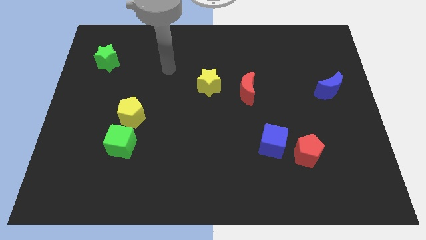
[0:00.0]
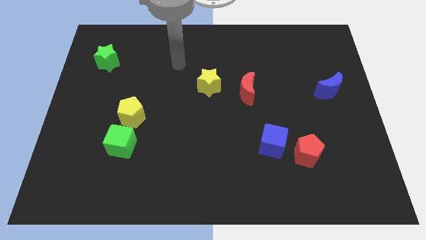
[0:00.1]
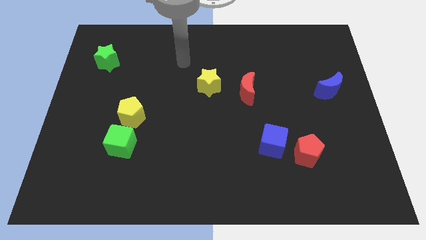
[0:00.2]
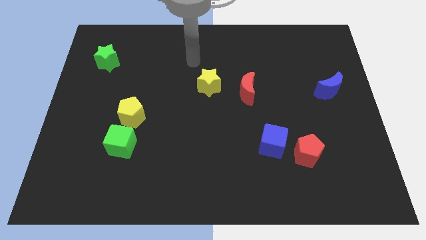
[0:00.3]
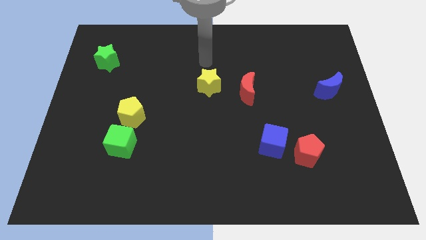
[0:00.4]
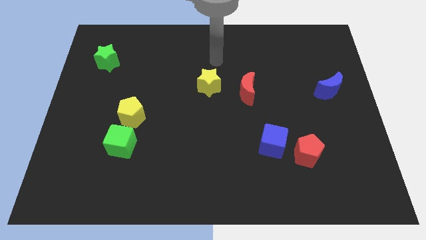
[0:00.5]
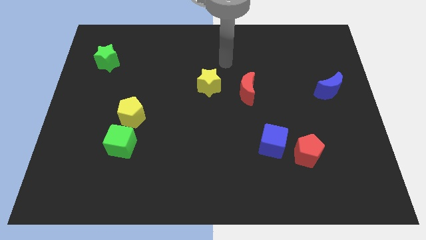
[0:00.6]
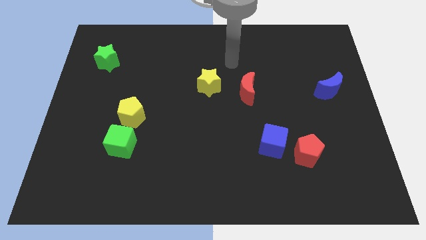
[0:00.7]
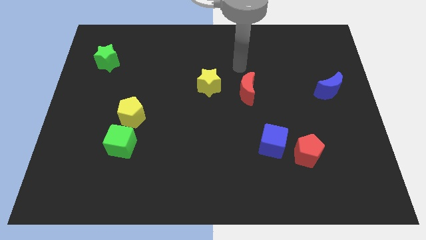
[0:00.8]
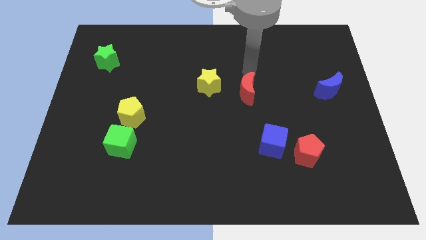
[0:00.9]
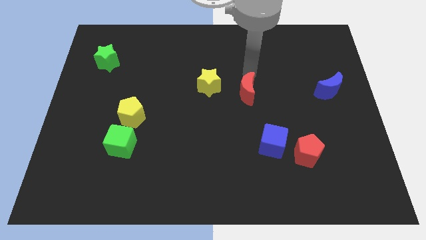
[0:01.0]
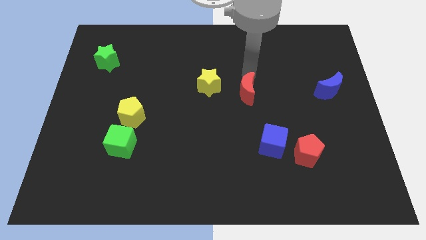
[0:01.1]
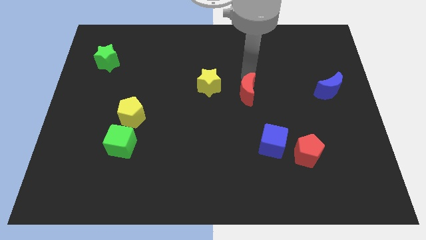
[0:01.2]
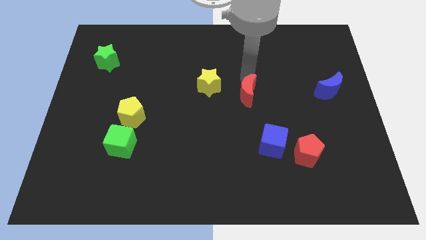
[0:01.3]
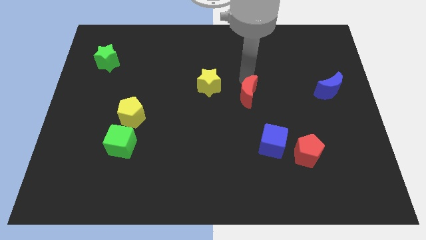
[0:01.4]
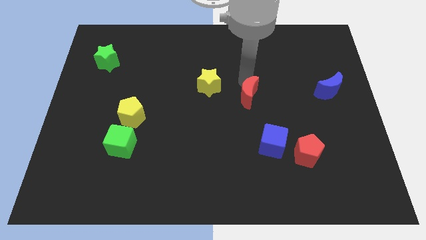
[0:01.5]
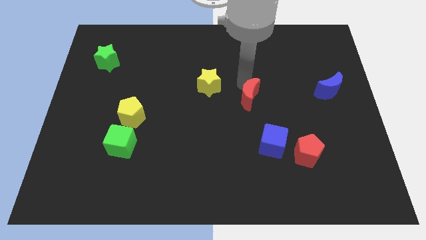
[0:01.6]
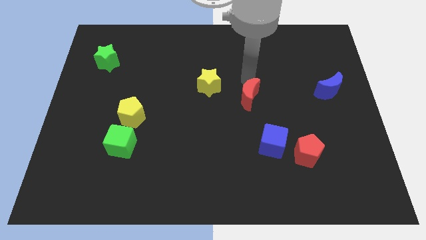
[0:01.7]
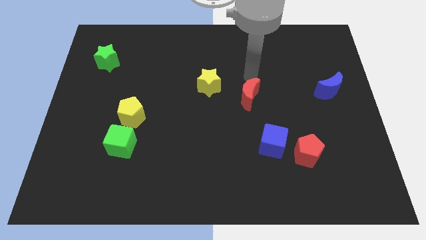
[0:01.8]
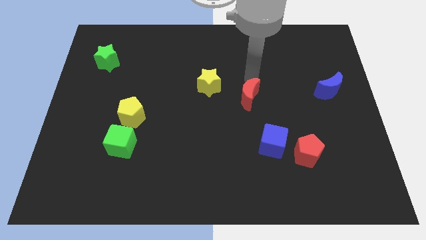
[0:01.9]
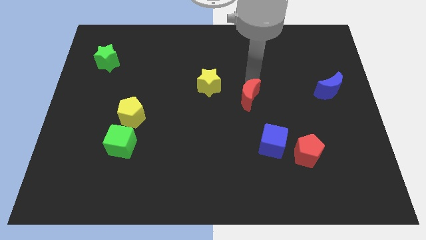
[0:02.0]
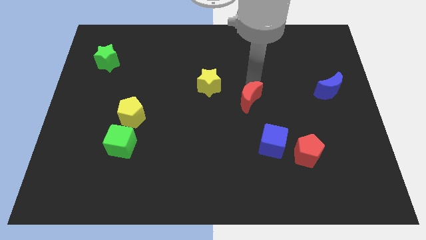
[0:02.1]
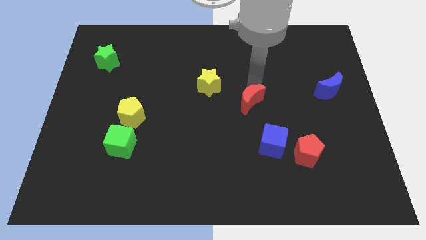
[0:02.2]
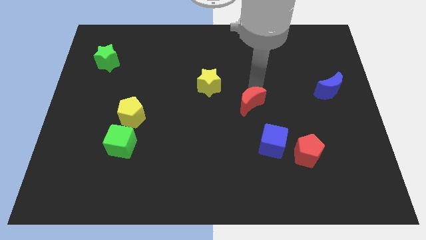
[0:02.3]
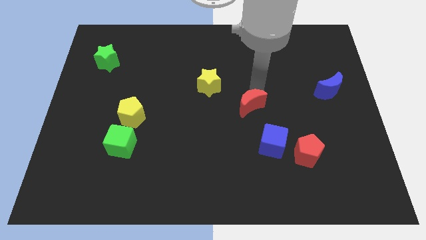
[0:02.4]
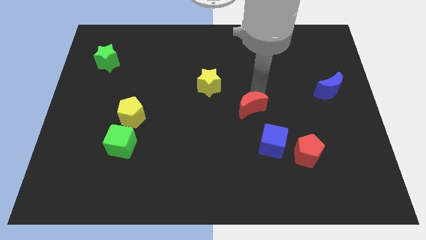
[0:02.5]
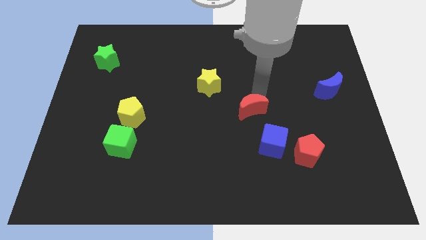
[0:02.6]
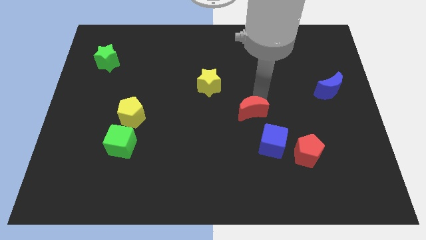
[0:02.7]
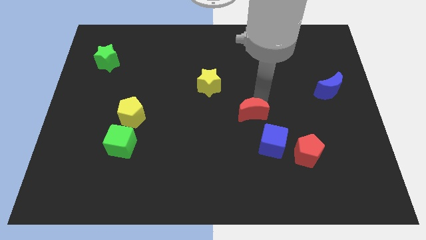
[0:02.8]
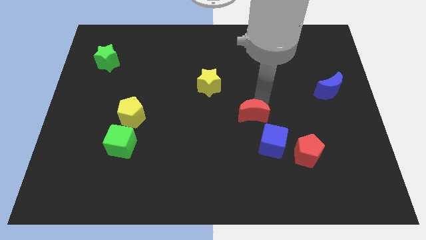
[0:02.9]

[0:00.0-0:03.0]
slide the red moon down a bit

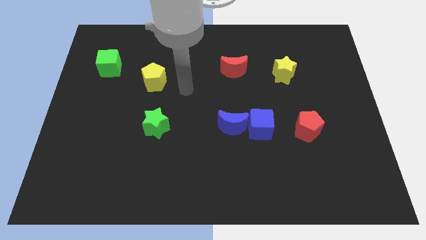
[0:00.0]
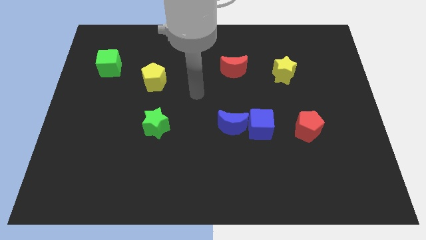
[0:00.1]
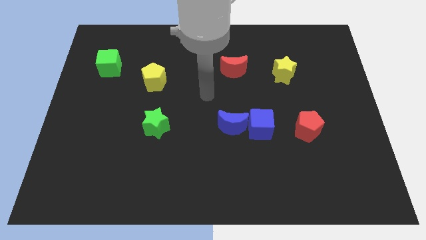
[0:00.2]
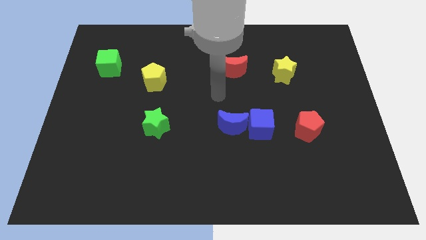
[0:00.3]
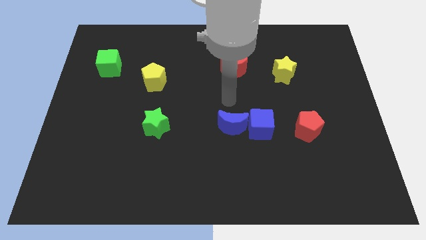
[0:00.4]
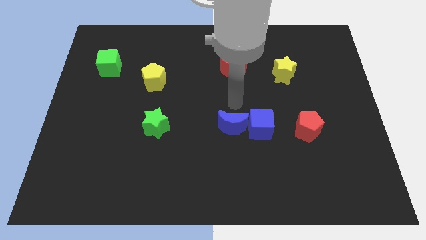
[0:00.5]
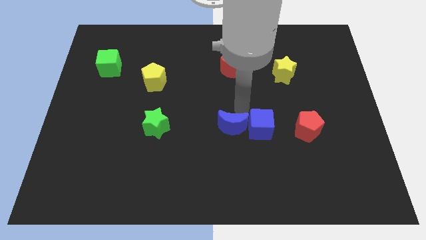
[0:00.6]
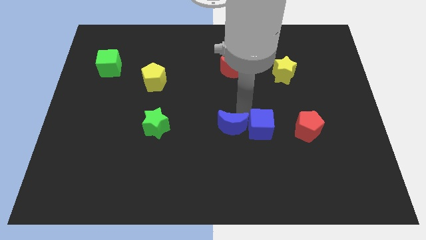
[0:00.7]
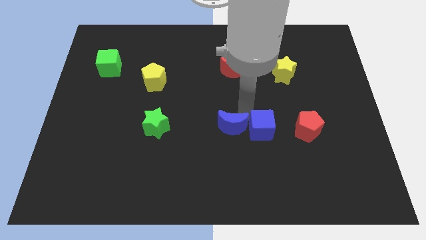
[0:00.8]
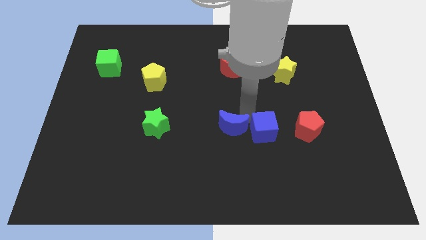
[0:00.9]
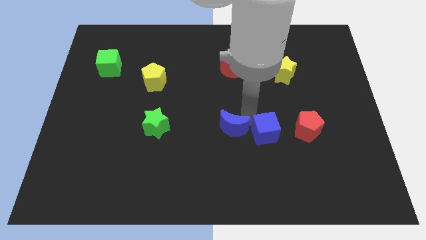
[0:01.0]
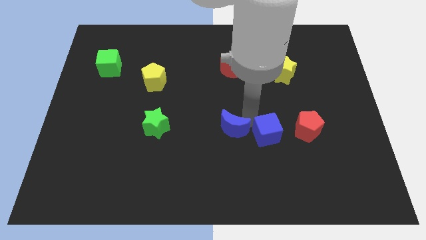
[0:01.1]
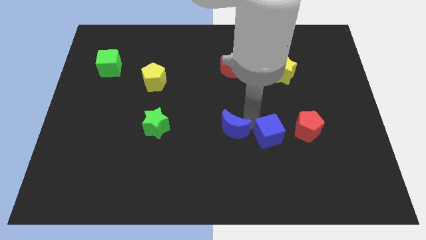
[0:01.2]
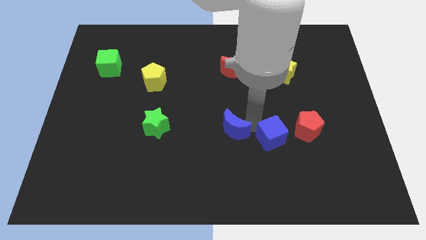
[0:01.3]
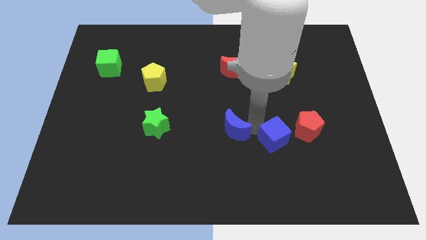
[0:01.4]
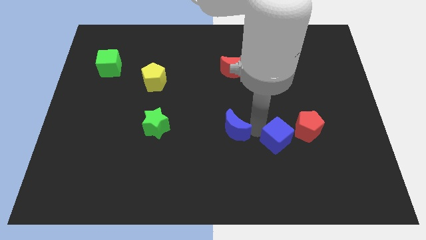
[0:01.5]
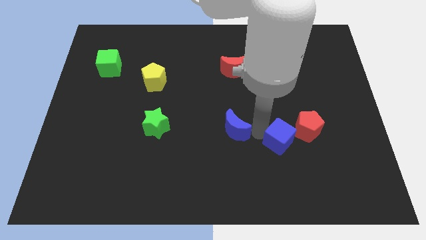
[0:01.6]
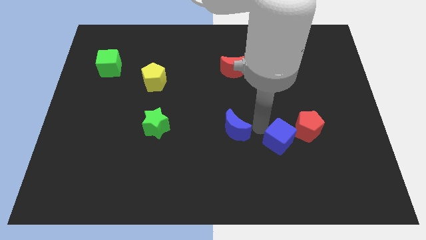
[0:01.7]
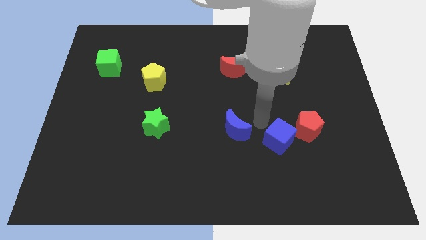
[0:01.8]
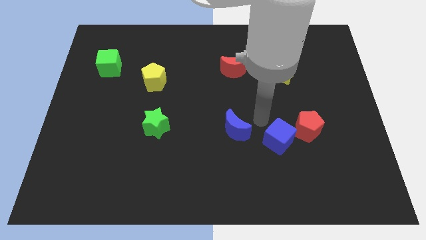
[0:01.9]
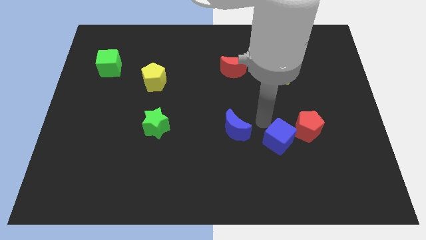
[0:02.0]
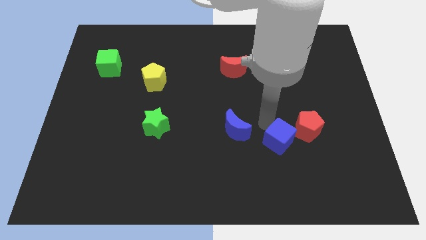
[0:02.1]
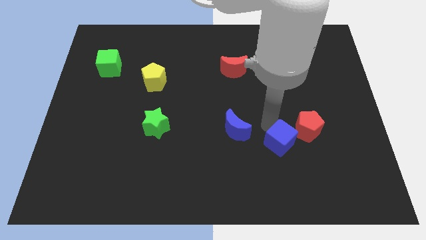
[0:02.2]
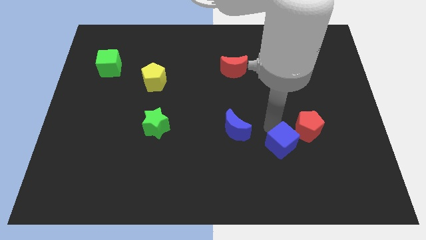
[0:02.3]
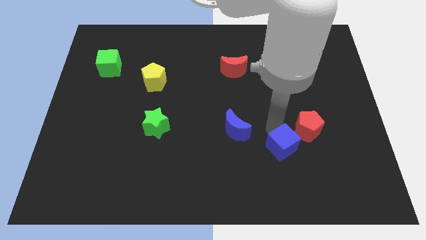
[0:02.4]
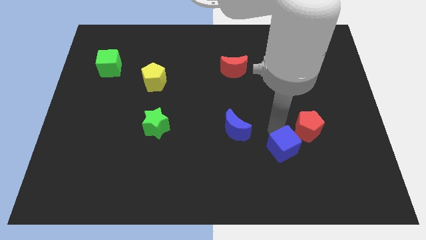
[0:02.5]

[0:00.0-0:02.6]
slide the blue cube a bit diagonally downwards and right

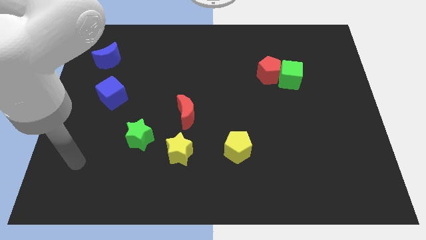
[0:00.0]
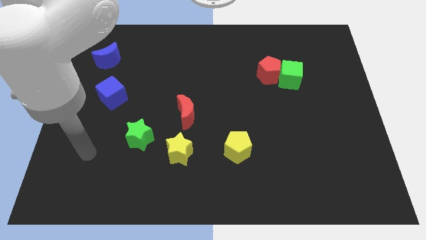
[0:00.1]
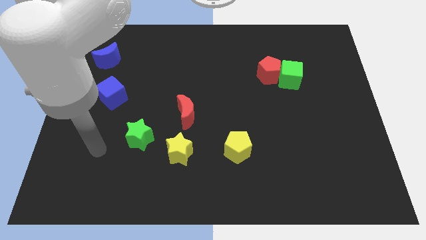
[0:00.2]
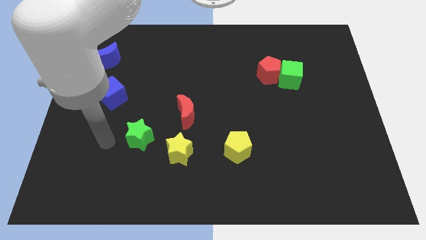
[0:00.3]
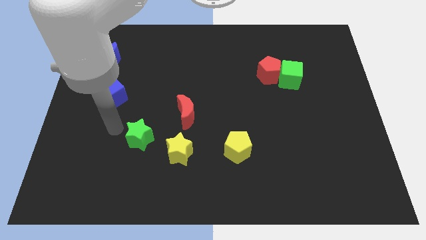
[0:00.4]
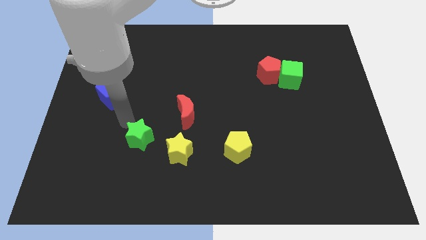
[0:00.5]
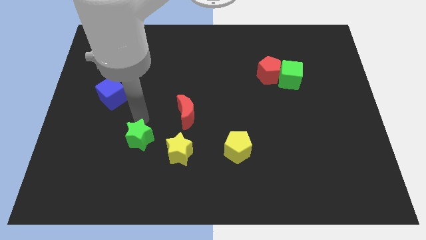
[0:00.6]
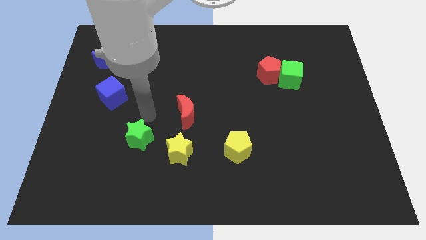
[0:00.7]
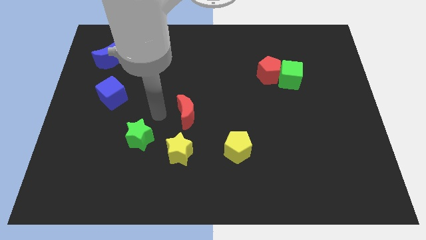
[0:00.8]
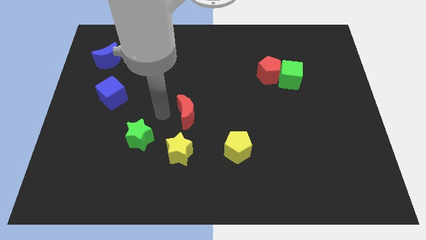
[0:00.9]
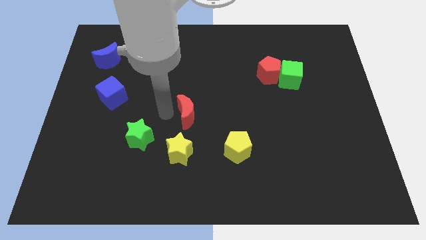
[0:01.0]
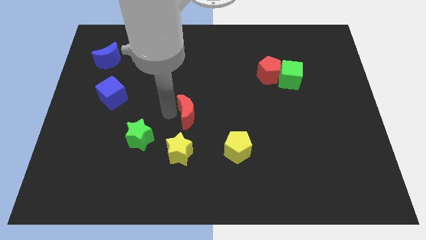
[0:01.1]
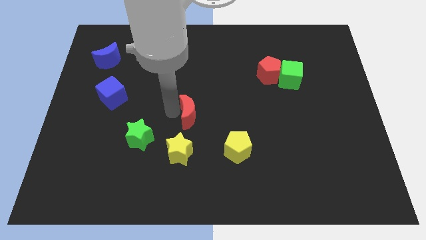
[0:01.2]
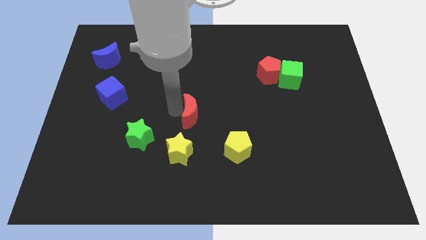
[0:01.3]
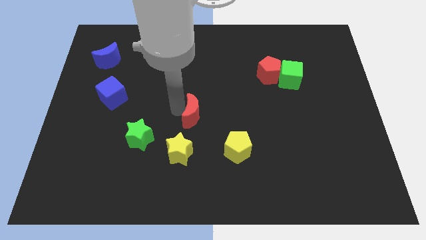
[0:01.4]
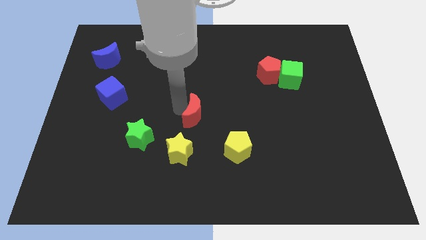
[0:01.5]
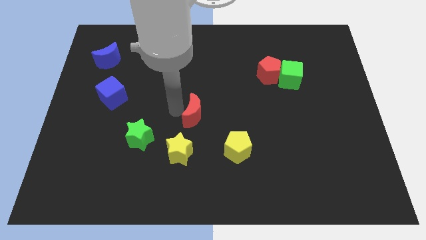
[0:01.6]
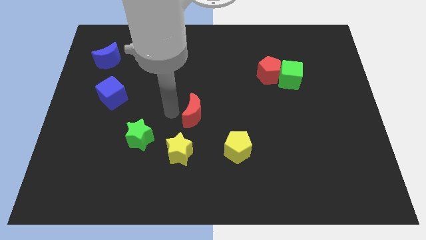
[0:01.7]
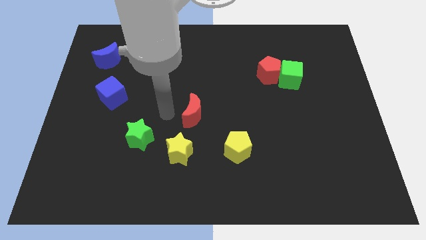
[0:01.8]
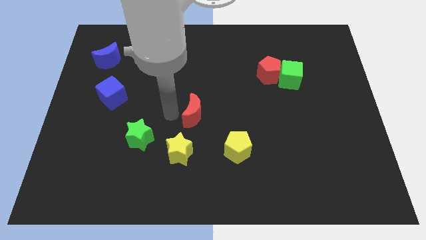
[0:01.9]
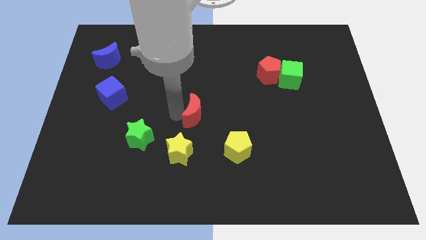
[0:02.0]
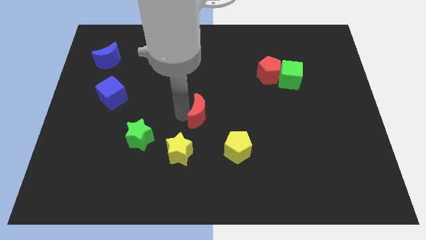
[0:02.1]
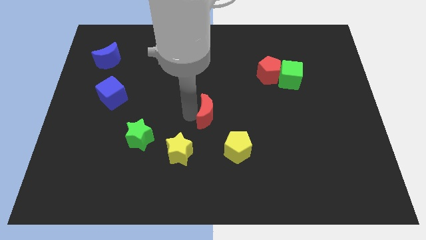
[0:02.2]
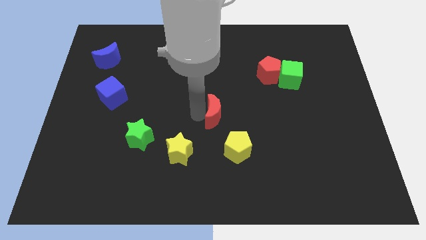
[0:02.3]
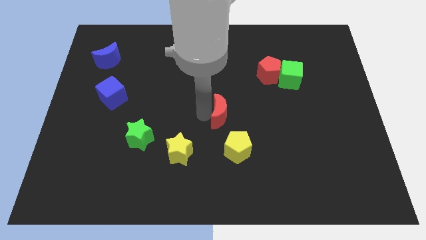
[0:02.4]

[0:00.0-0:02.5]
slightly slide the red moon to the right
